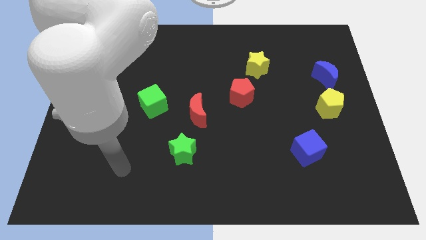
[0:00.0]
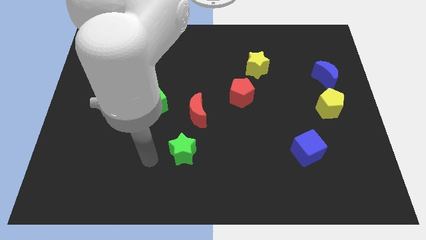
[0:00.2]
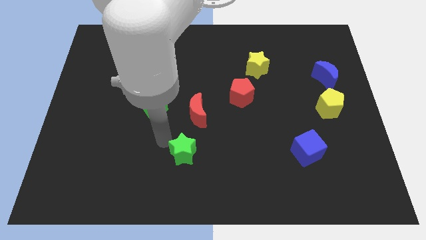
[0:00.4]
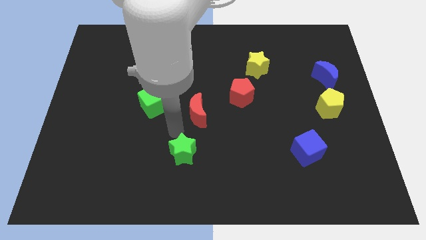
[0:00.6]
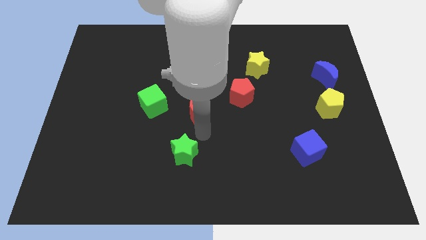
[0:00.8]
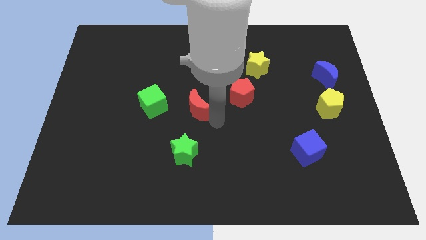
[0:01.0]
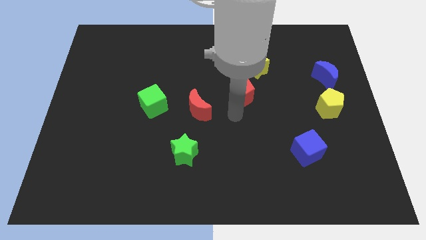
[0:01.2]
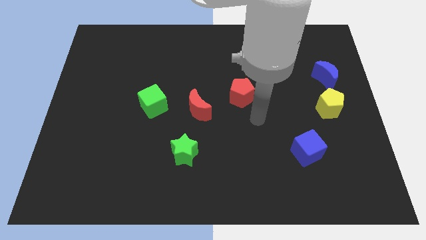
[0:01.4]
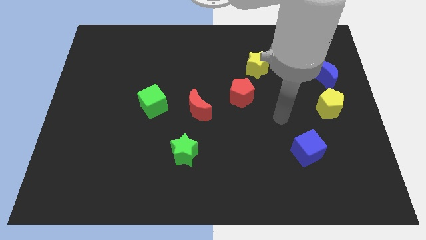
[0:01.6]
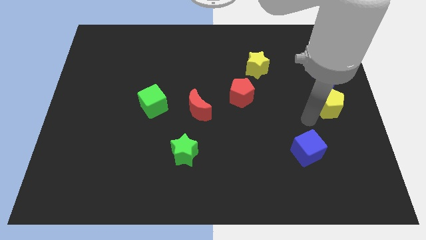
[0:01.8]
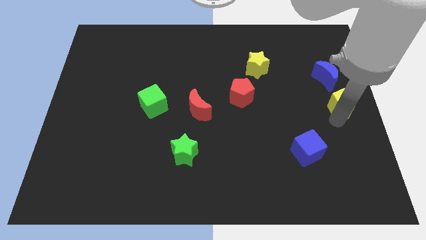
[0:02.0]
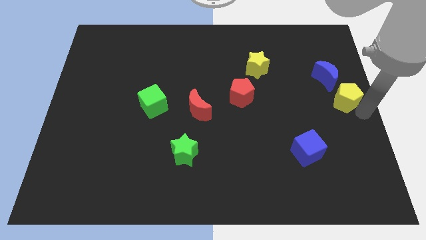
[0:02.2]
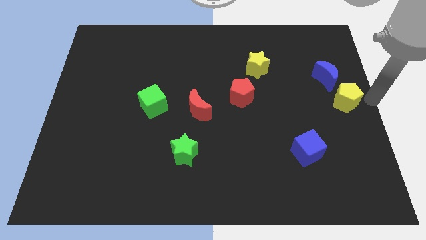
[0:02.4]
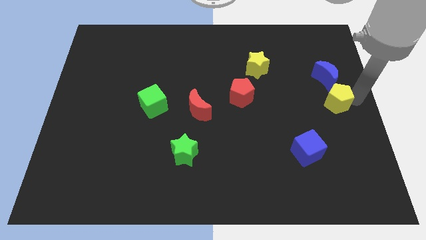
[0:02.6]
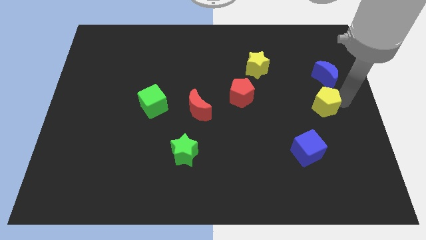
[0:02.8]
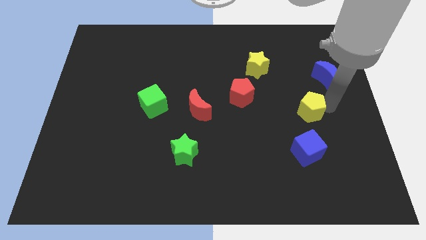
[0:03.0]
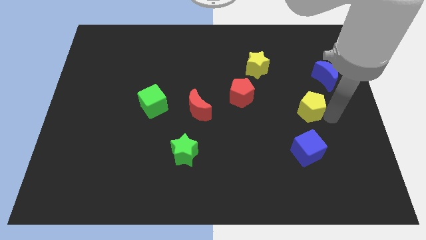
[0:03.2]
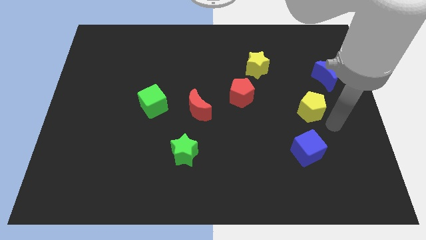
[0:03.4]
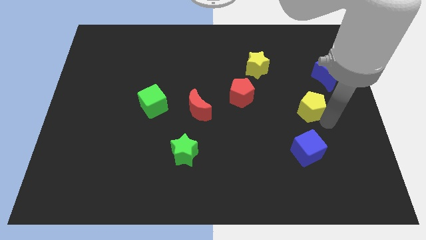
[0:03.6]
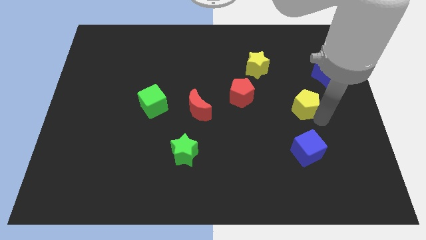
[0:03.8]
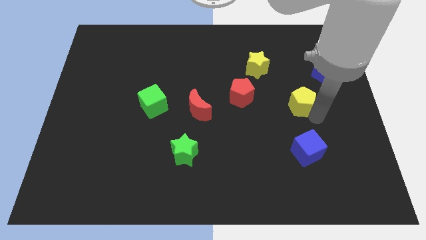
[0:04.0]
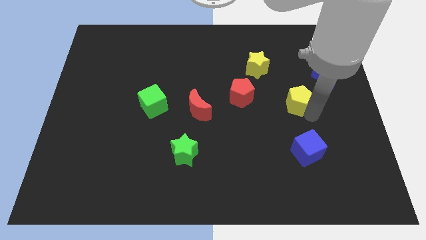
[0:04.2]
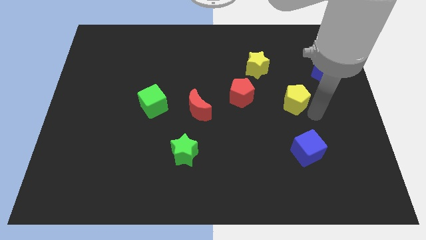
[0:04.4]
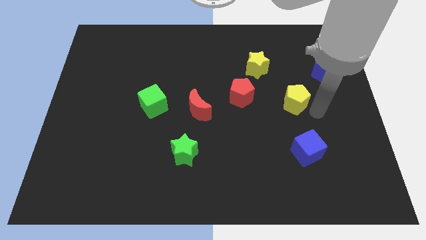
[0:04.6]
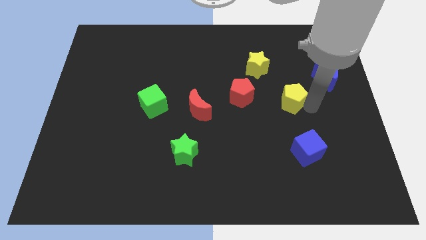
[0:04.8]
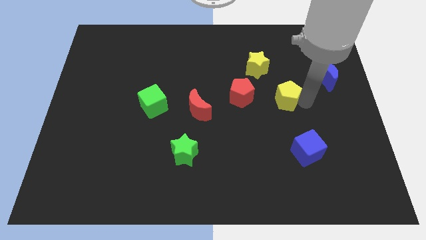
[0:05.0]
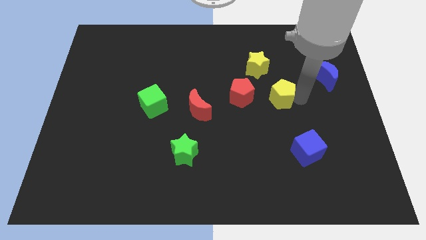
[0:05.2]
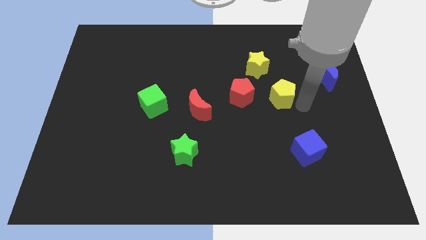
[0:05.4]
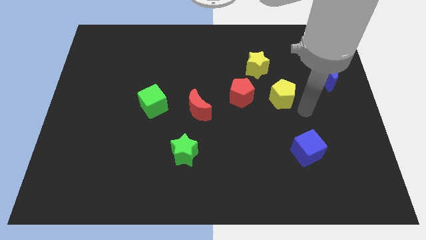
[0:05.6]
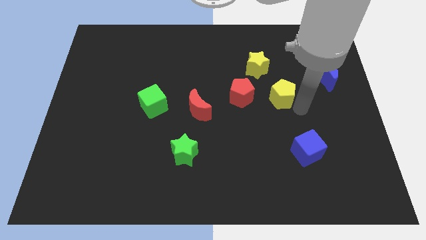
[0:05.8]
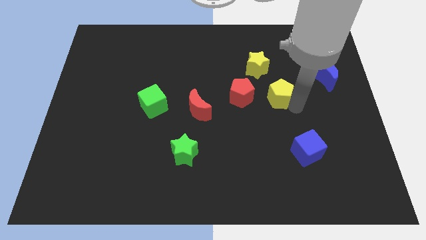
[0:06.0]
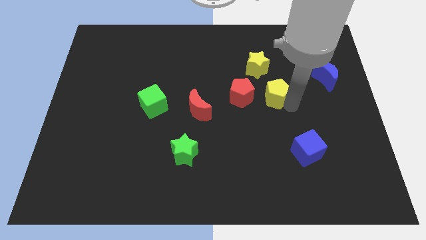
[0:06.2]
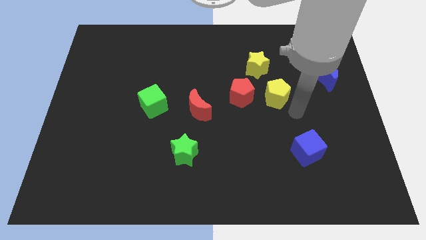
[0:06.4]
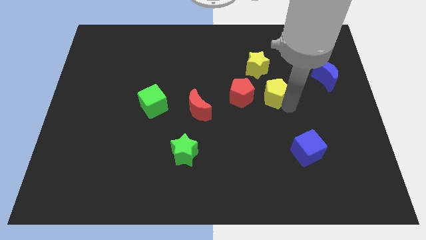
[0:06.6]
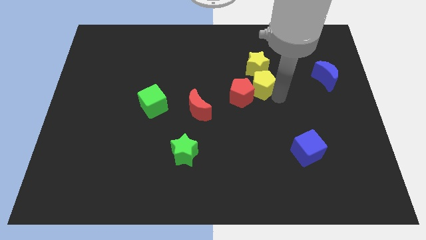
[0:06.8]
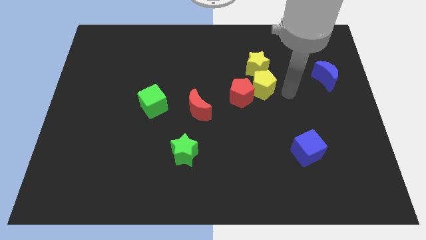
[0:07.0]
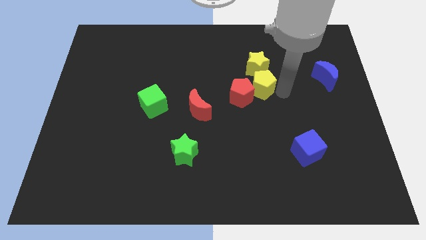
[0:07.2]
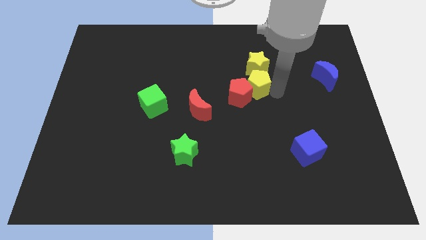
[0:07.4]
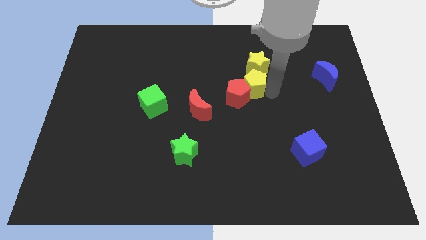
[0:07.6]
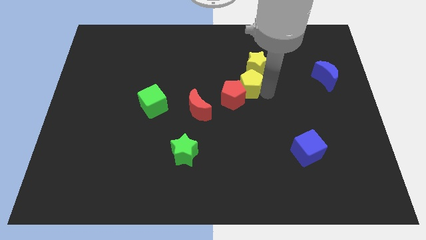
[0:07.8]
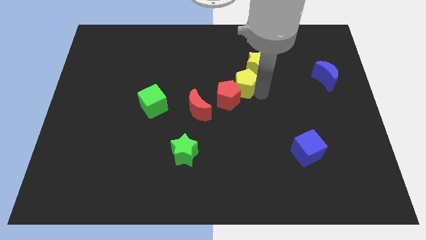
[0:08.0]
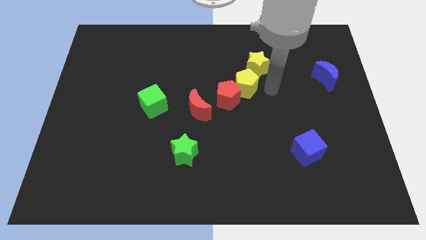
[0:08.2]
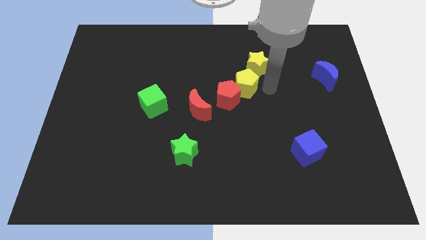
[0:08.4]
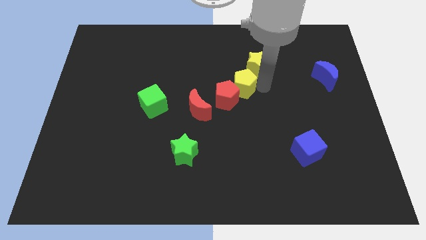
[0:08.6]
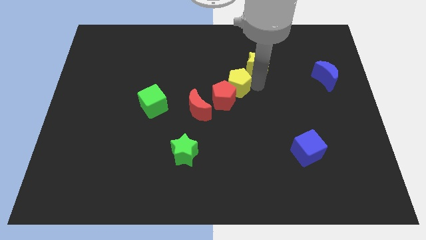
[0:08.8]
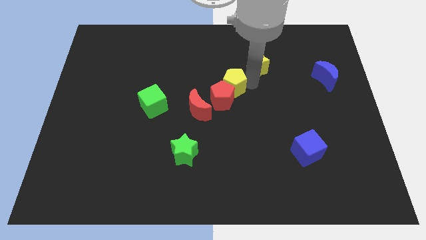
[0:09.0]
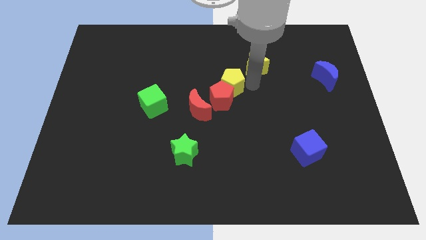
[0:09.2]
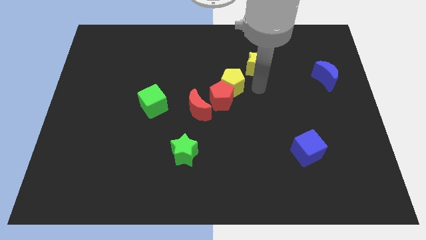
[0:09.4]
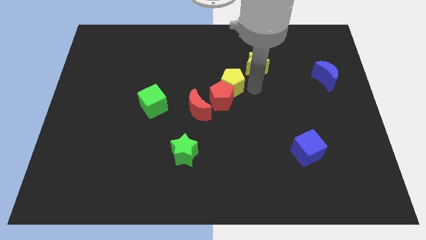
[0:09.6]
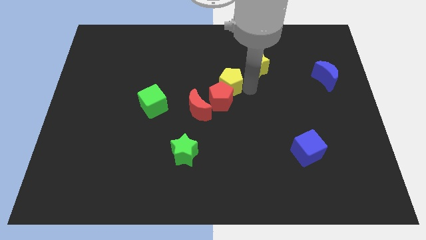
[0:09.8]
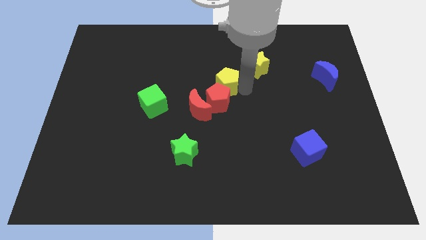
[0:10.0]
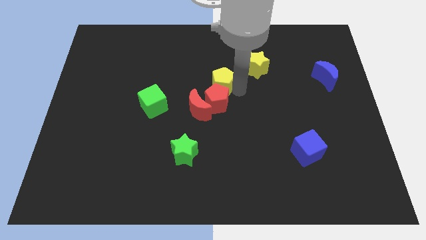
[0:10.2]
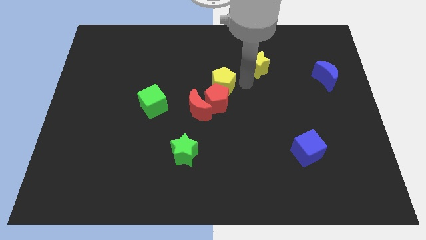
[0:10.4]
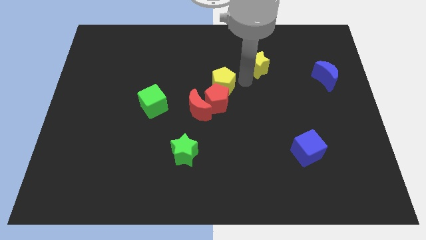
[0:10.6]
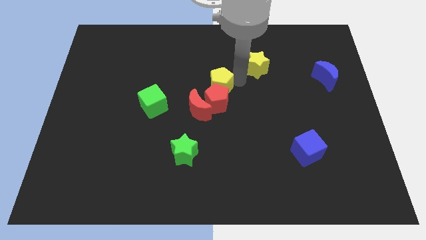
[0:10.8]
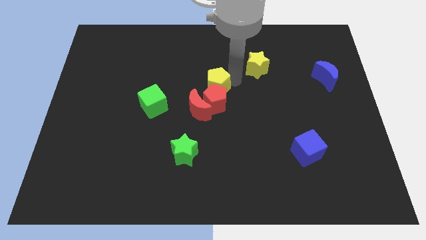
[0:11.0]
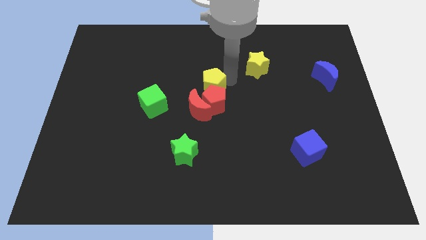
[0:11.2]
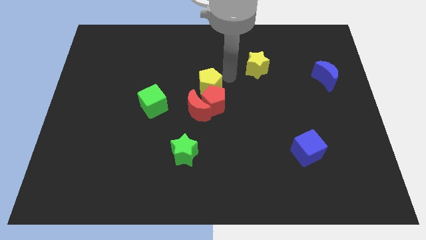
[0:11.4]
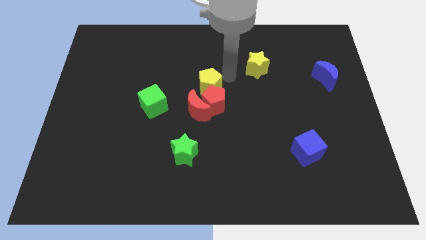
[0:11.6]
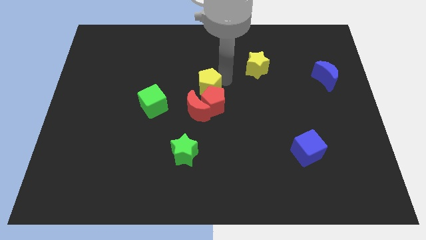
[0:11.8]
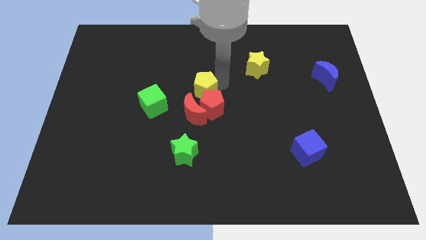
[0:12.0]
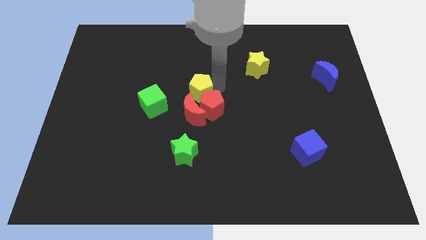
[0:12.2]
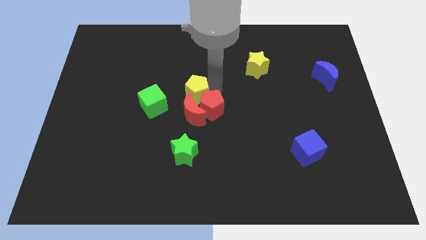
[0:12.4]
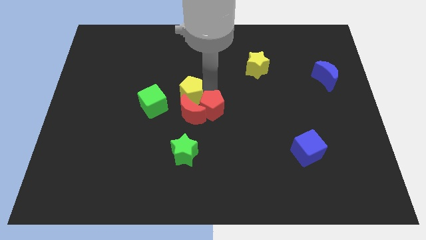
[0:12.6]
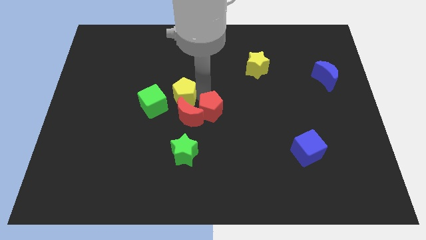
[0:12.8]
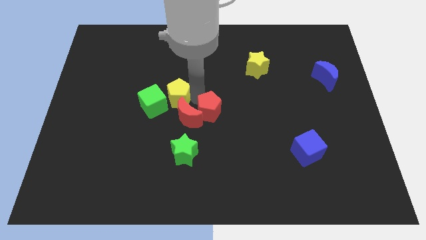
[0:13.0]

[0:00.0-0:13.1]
put the yellow pentagon to the green cube

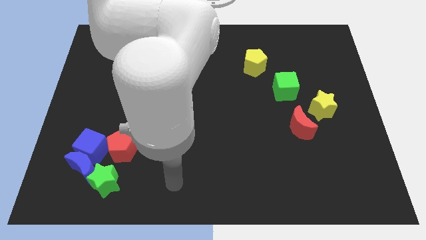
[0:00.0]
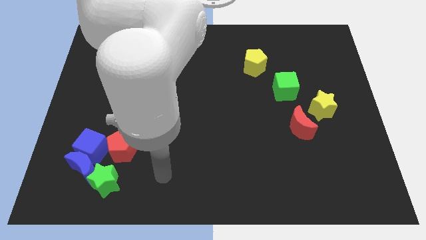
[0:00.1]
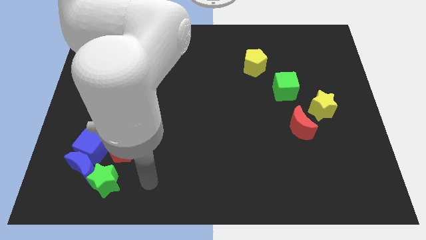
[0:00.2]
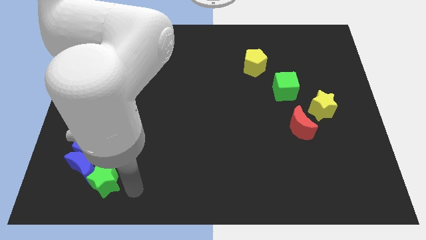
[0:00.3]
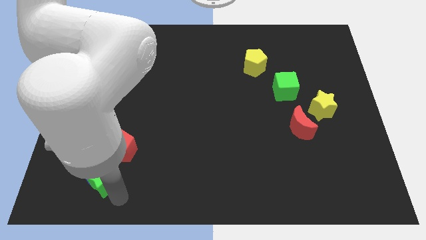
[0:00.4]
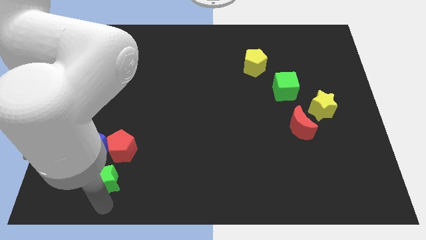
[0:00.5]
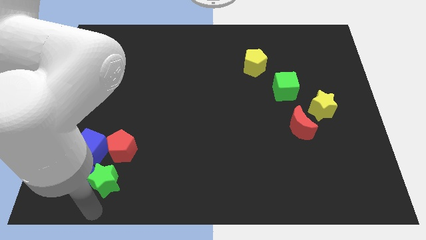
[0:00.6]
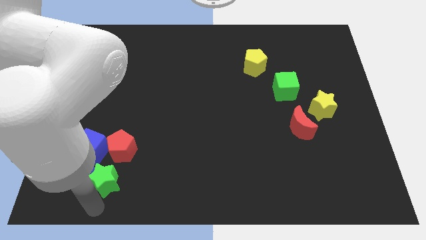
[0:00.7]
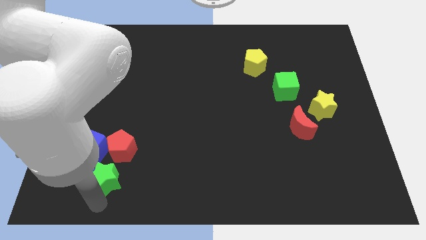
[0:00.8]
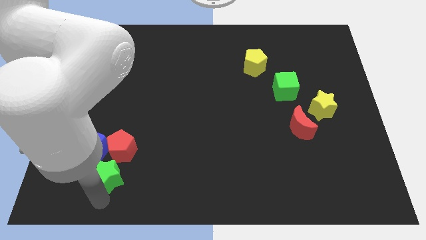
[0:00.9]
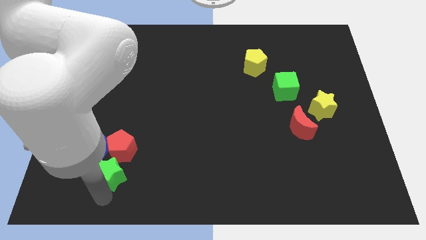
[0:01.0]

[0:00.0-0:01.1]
put the green star to the red pentagon

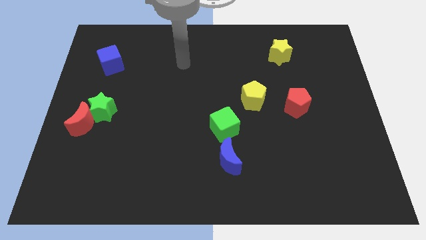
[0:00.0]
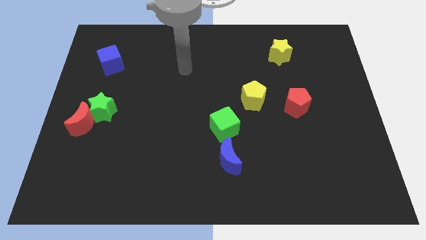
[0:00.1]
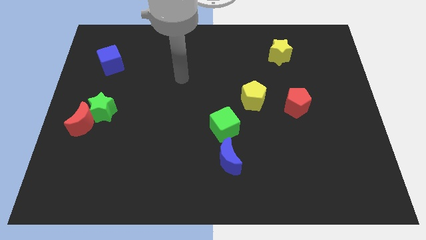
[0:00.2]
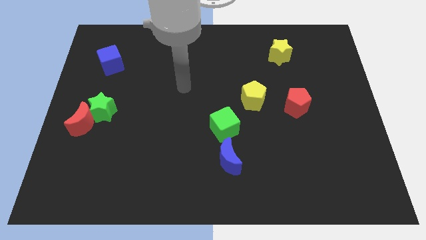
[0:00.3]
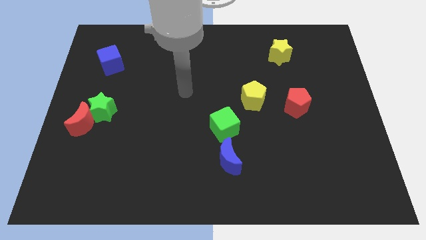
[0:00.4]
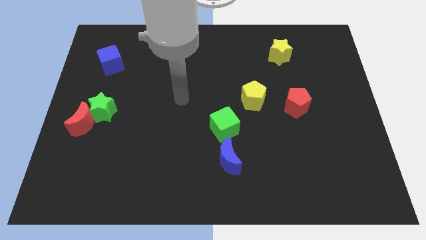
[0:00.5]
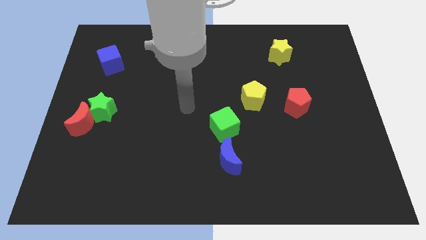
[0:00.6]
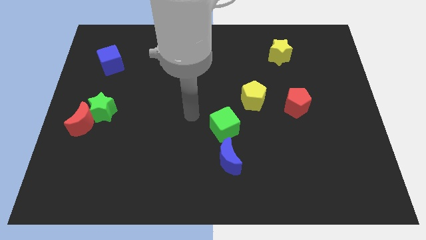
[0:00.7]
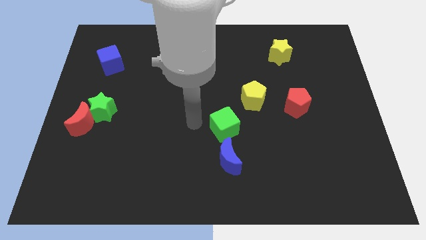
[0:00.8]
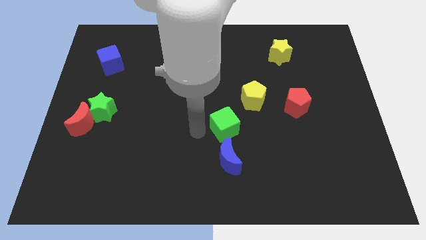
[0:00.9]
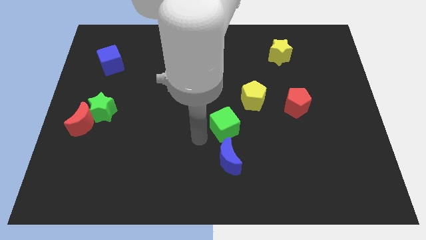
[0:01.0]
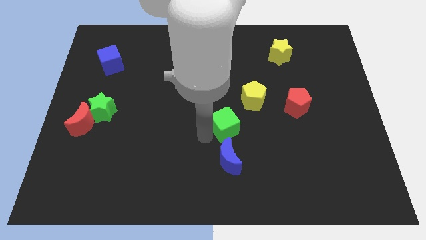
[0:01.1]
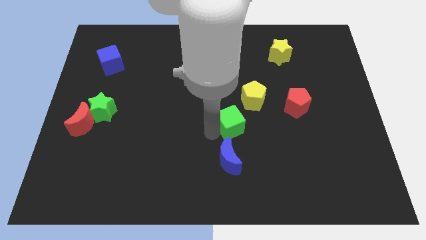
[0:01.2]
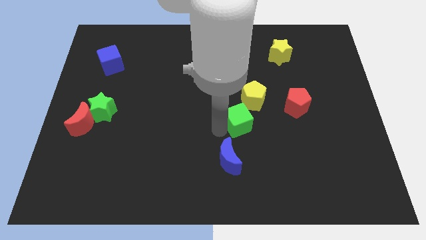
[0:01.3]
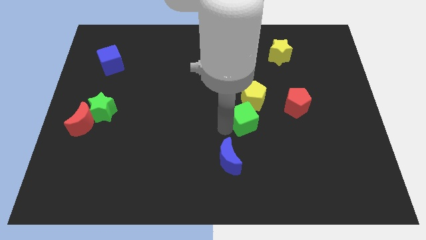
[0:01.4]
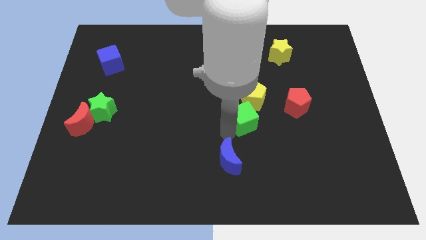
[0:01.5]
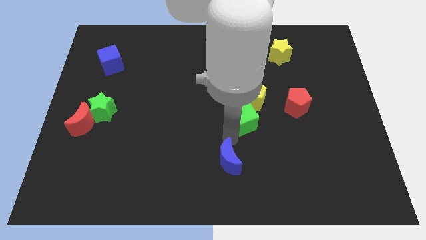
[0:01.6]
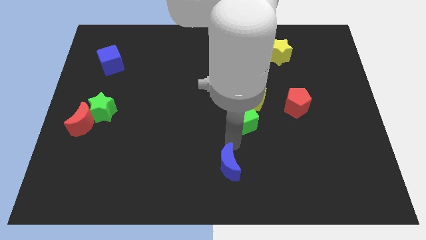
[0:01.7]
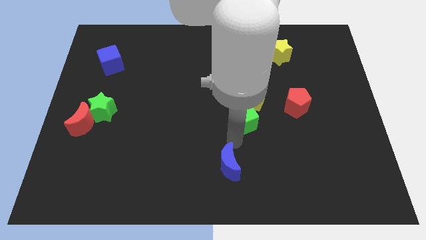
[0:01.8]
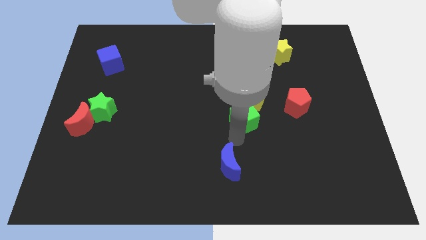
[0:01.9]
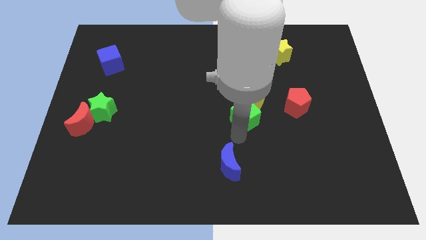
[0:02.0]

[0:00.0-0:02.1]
put the green cube next to the yellow pentagon
